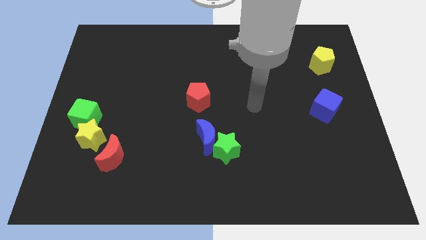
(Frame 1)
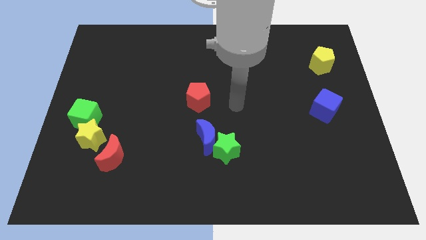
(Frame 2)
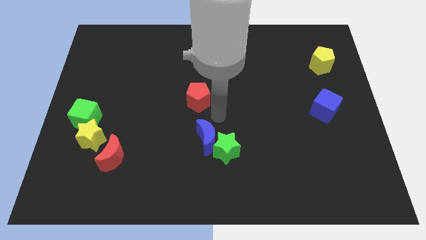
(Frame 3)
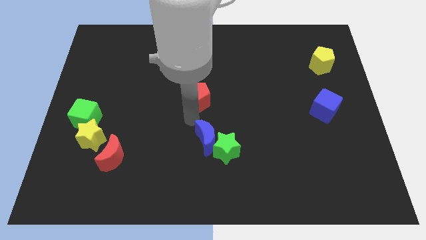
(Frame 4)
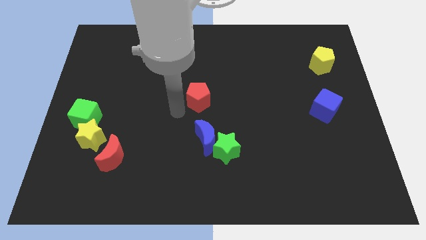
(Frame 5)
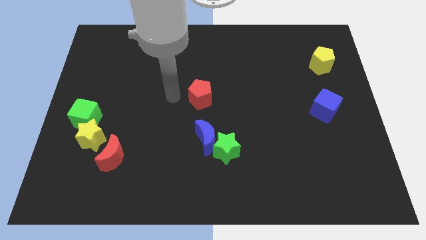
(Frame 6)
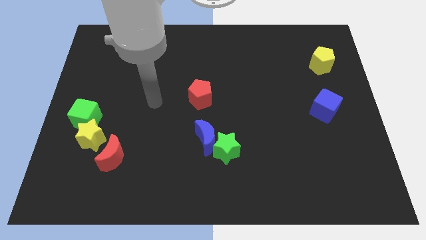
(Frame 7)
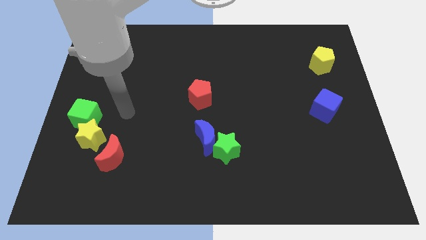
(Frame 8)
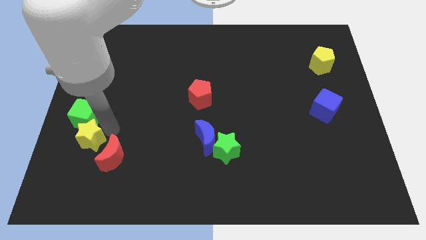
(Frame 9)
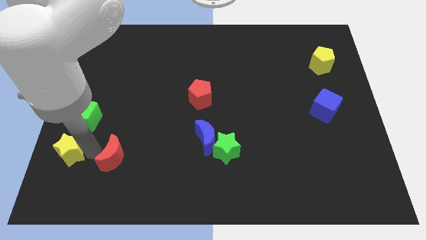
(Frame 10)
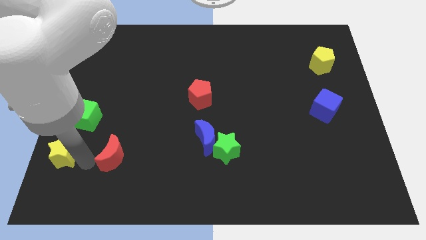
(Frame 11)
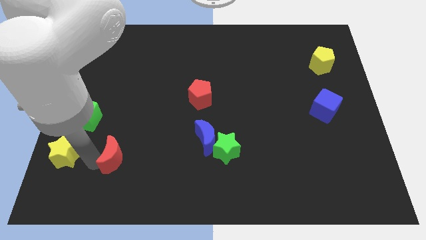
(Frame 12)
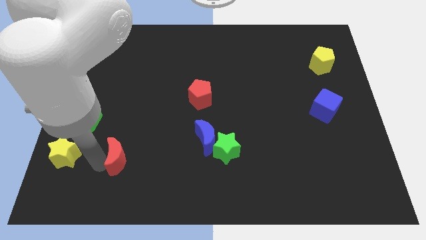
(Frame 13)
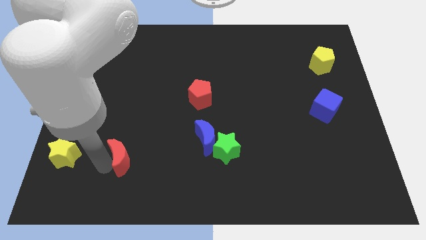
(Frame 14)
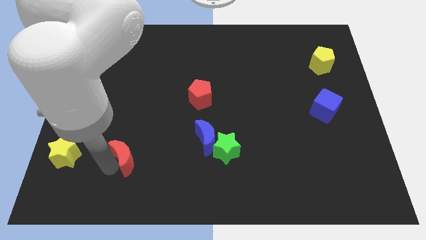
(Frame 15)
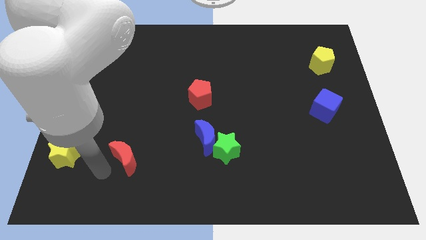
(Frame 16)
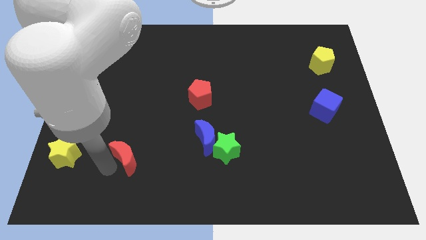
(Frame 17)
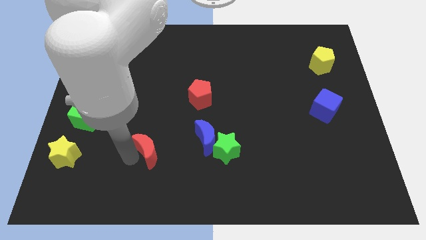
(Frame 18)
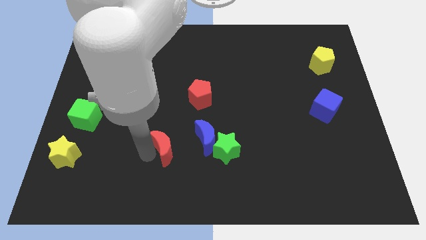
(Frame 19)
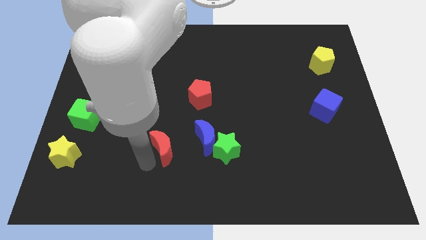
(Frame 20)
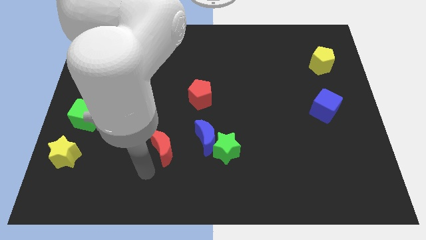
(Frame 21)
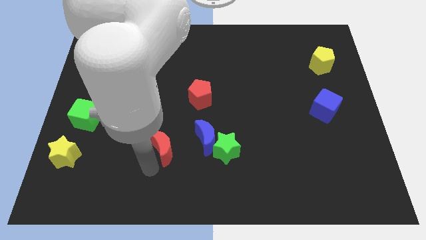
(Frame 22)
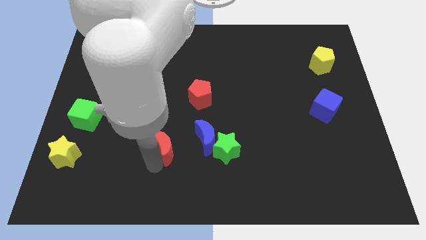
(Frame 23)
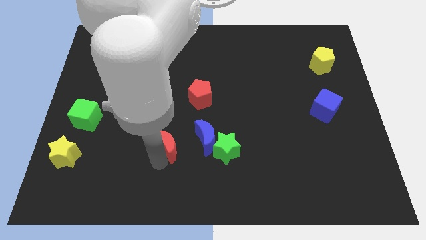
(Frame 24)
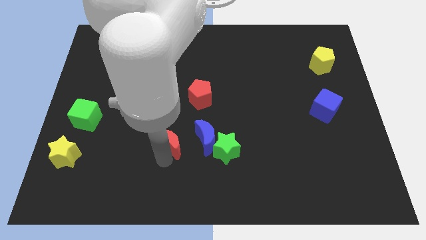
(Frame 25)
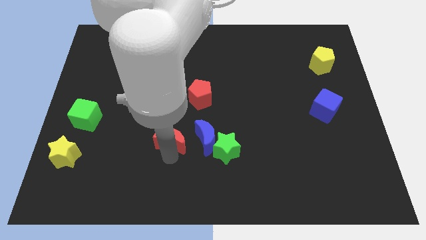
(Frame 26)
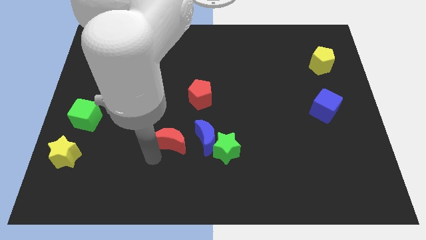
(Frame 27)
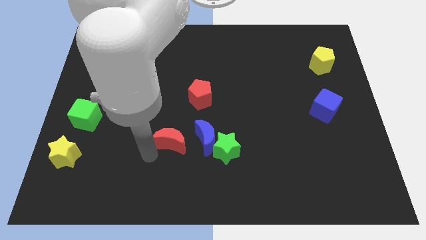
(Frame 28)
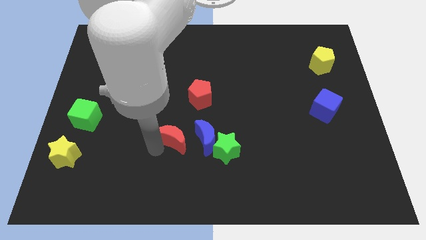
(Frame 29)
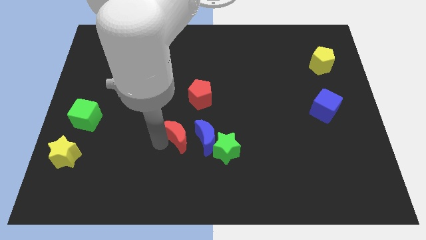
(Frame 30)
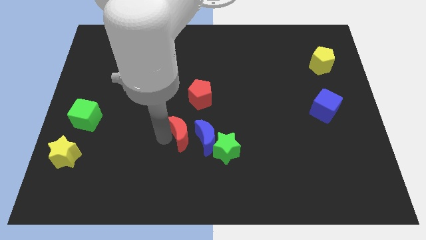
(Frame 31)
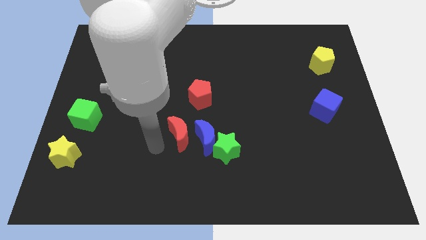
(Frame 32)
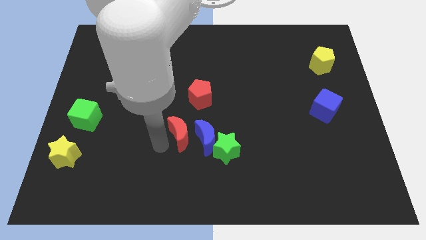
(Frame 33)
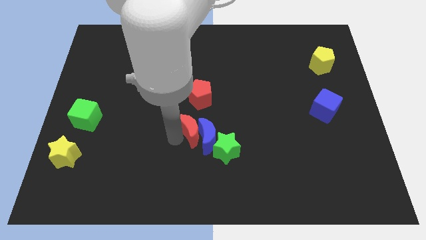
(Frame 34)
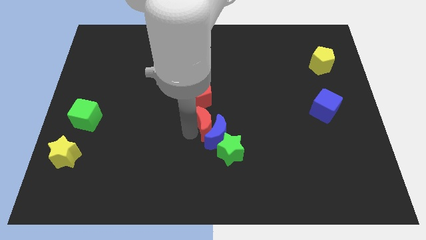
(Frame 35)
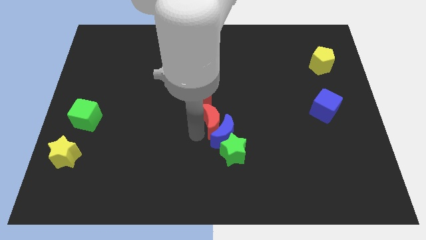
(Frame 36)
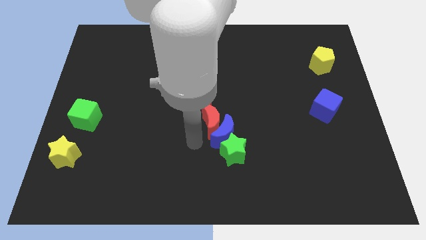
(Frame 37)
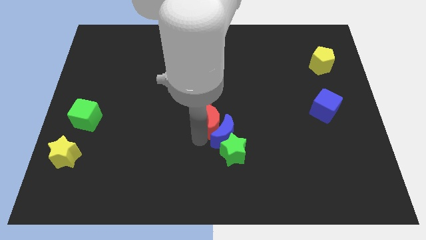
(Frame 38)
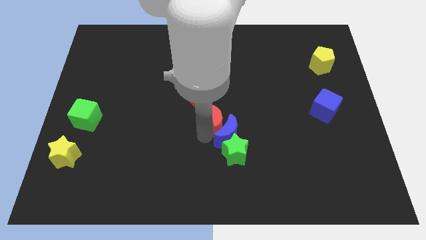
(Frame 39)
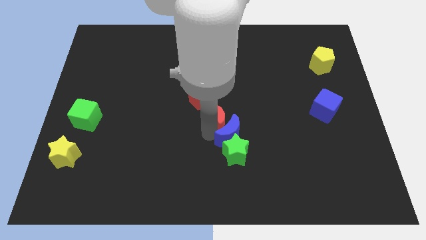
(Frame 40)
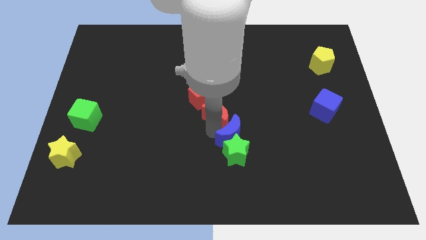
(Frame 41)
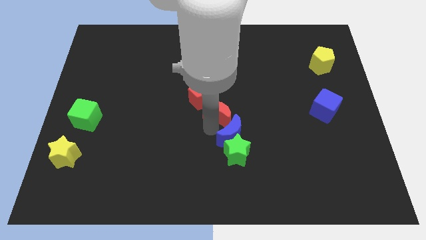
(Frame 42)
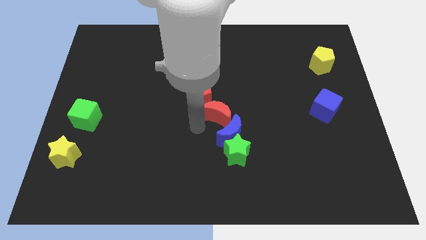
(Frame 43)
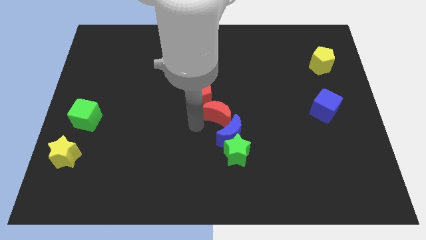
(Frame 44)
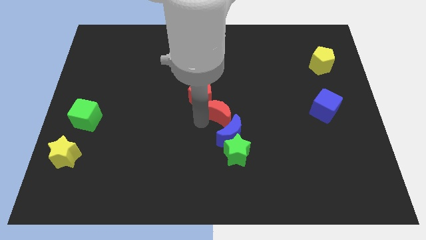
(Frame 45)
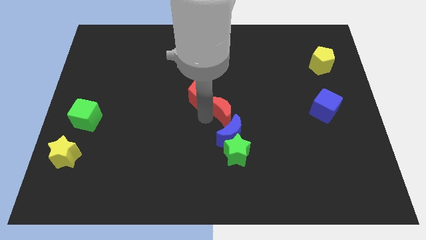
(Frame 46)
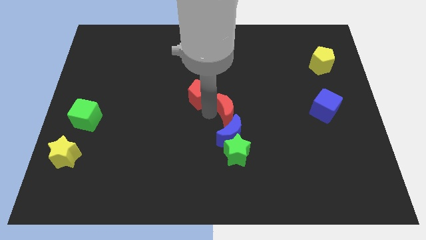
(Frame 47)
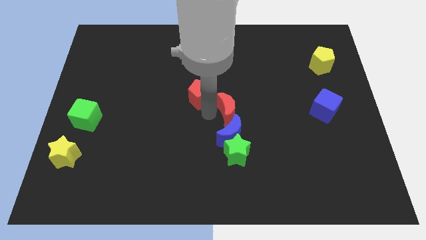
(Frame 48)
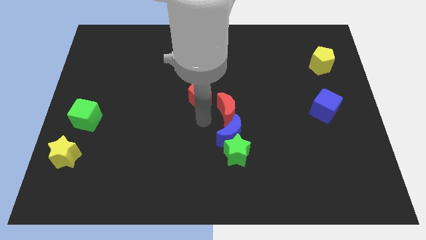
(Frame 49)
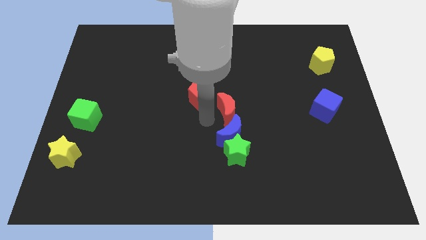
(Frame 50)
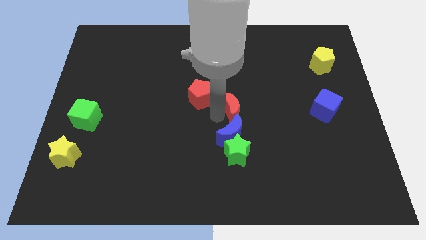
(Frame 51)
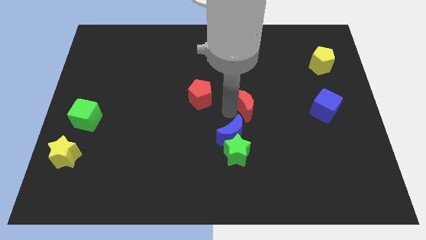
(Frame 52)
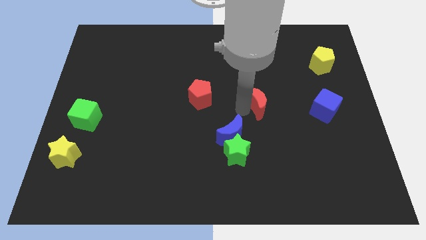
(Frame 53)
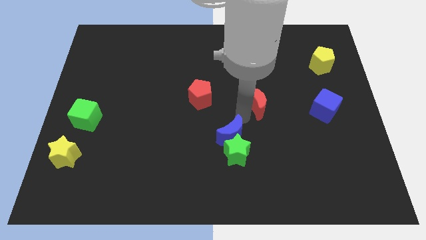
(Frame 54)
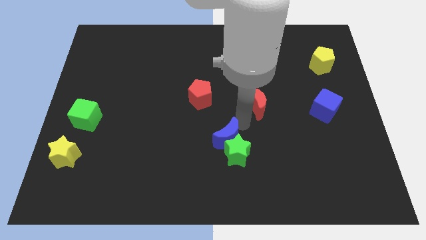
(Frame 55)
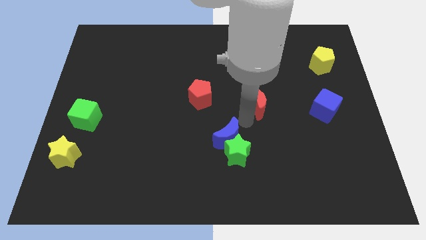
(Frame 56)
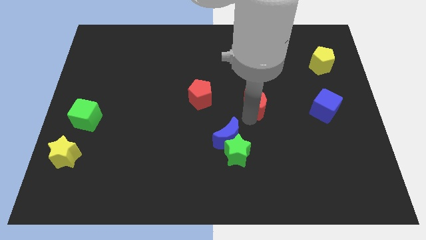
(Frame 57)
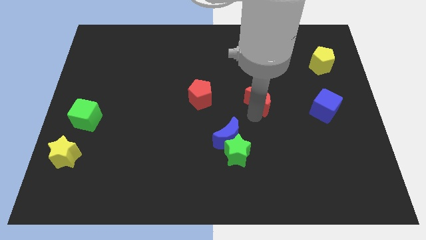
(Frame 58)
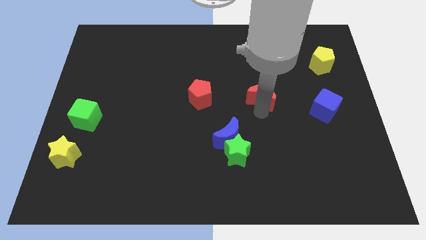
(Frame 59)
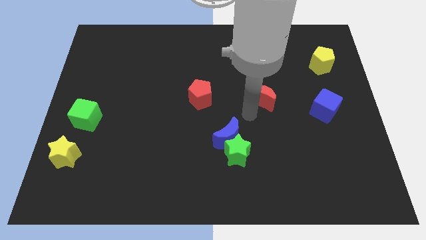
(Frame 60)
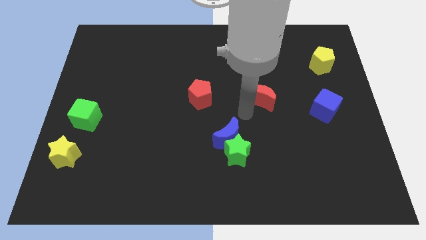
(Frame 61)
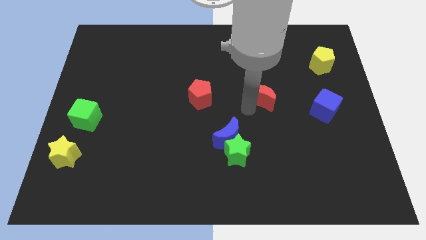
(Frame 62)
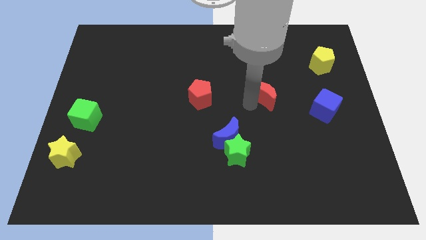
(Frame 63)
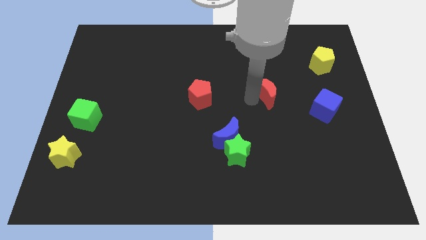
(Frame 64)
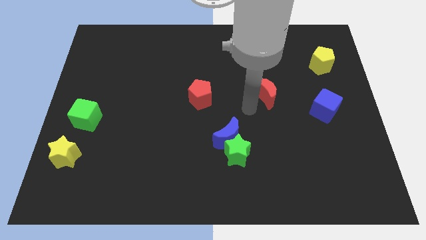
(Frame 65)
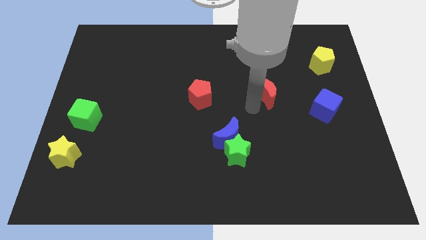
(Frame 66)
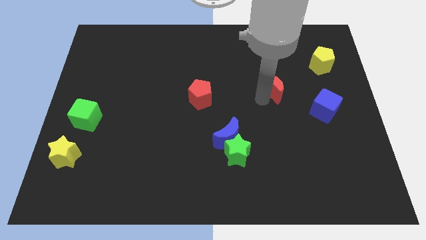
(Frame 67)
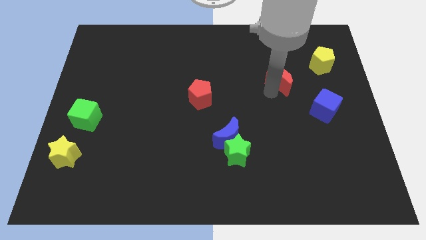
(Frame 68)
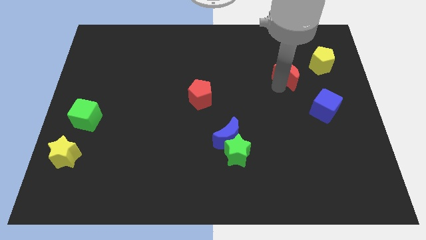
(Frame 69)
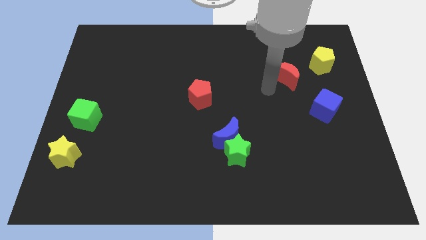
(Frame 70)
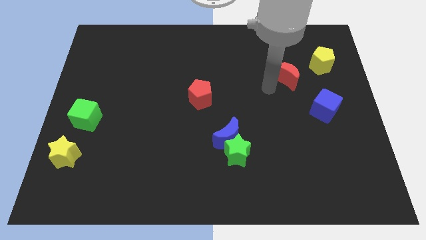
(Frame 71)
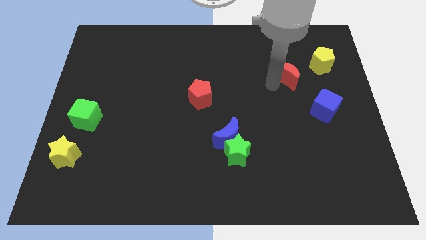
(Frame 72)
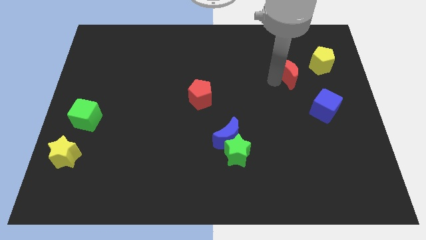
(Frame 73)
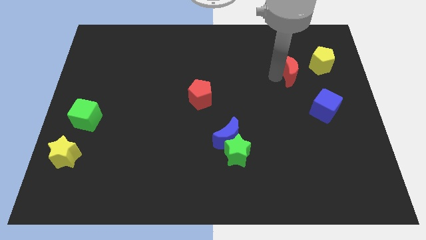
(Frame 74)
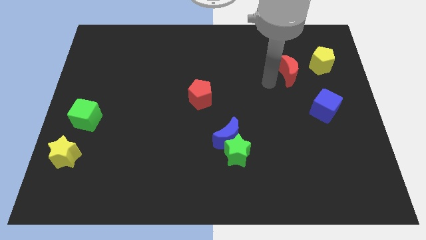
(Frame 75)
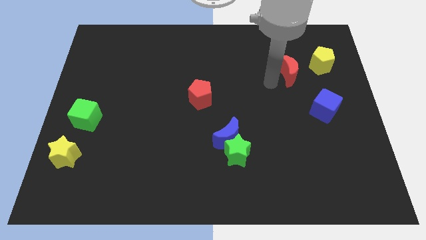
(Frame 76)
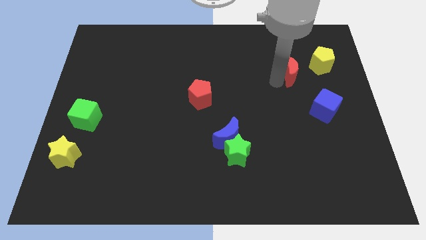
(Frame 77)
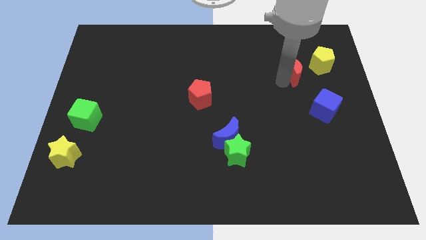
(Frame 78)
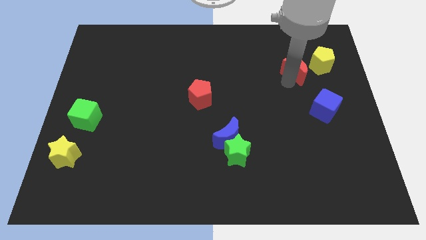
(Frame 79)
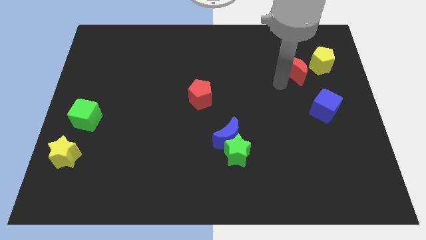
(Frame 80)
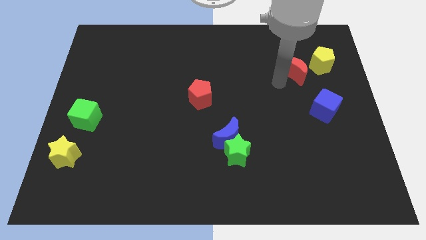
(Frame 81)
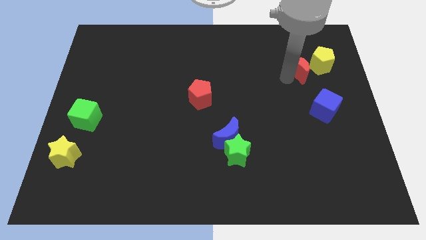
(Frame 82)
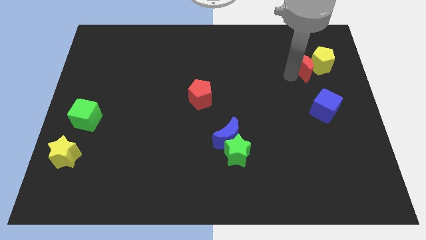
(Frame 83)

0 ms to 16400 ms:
move the red moon next to the yellow pentagon
